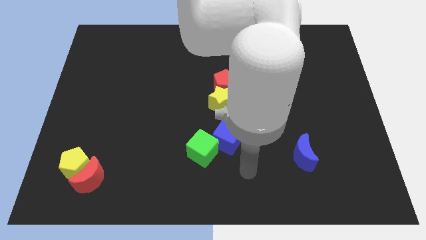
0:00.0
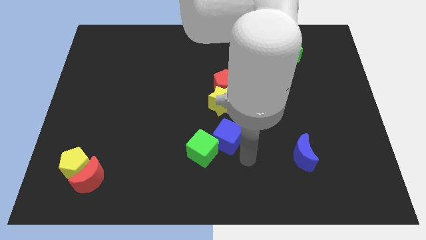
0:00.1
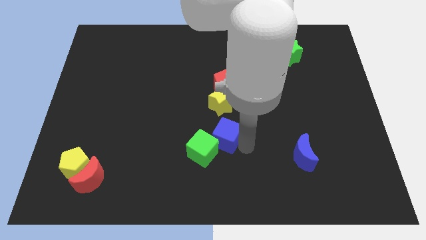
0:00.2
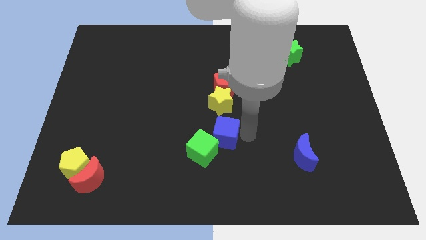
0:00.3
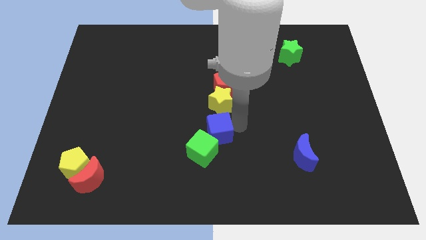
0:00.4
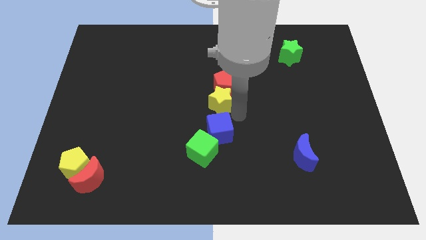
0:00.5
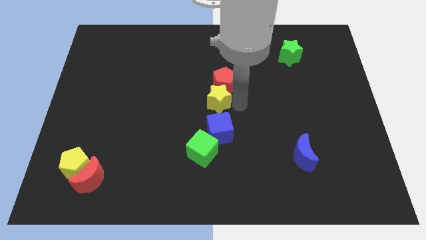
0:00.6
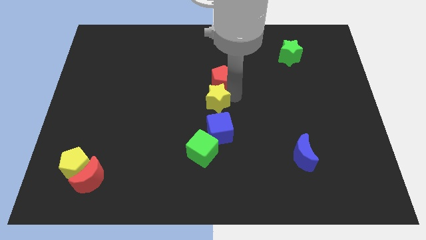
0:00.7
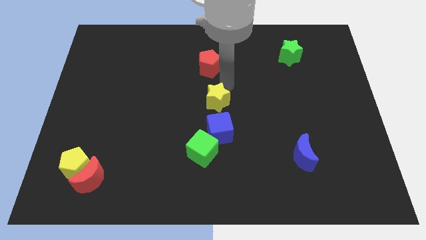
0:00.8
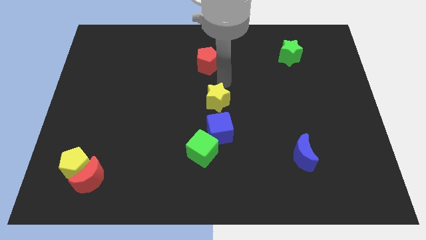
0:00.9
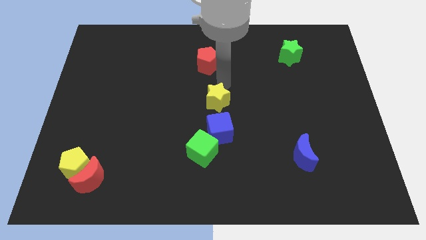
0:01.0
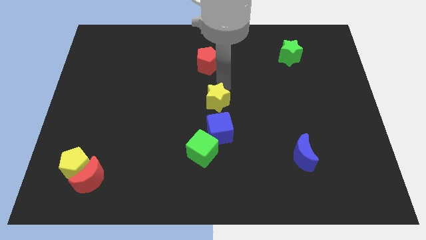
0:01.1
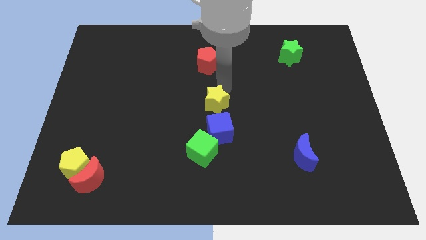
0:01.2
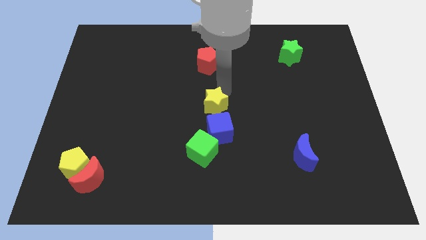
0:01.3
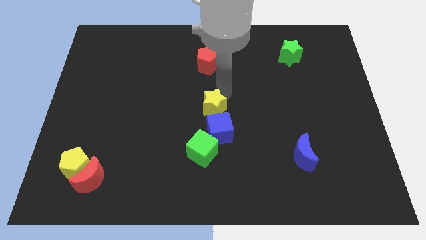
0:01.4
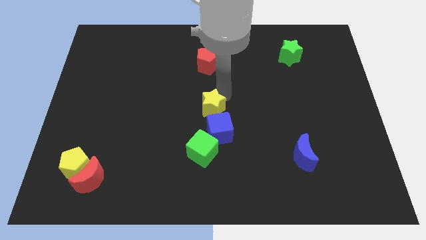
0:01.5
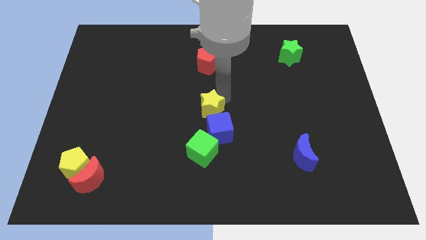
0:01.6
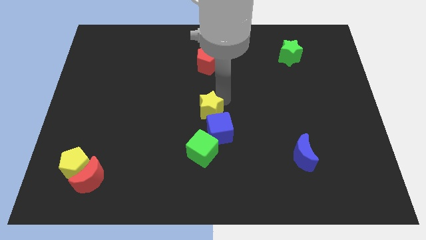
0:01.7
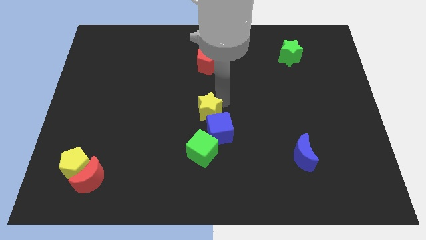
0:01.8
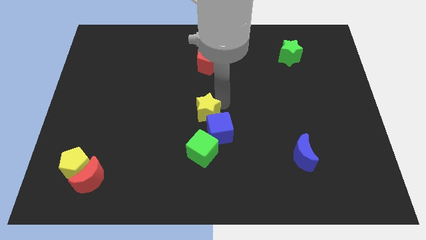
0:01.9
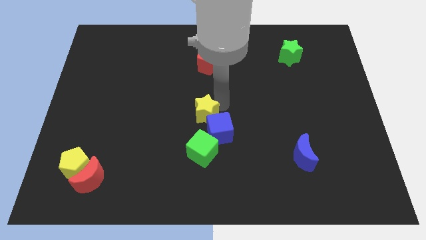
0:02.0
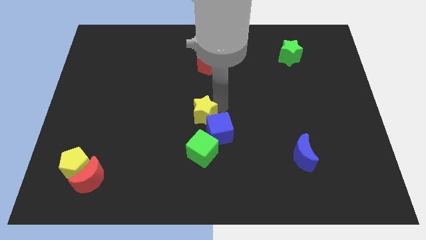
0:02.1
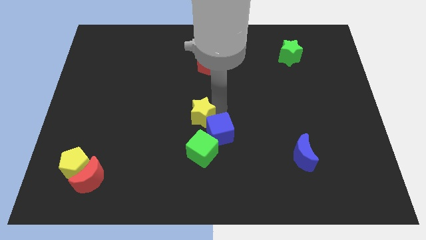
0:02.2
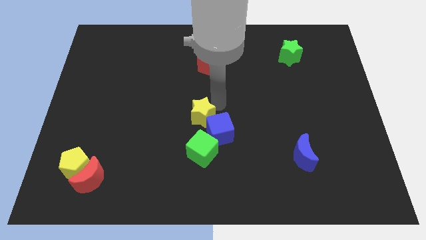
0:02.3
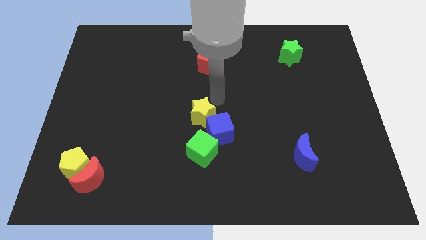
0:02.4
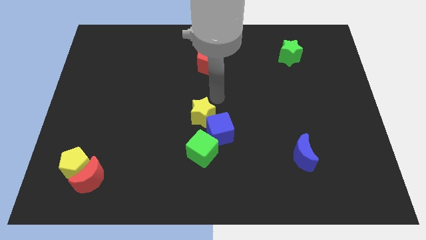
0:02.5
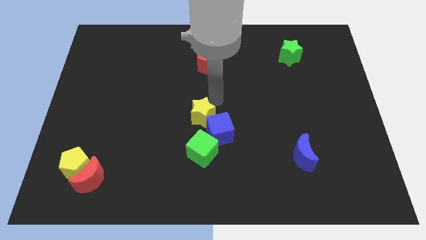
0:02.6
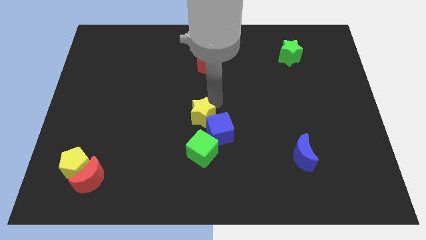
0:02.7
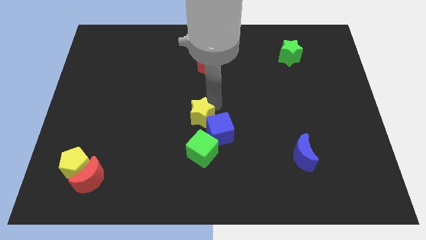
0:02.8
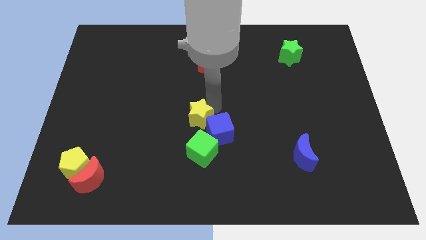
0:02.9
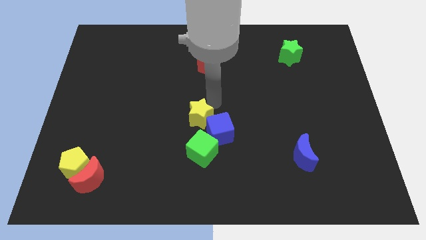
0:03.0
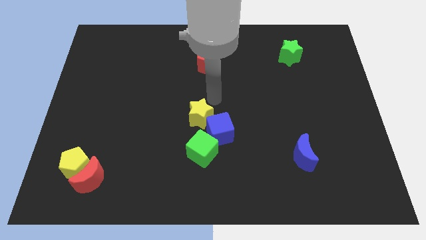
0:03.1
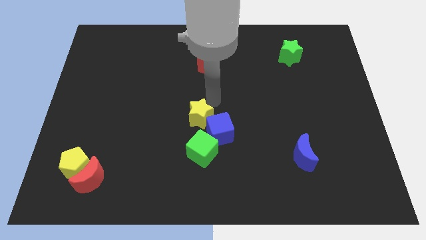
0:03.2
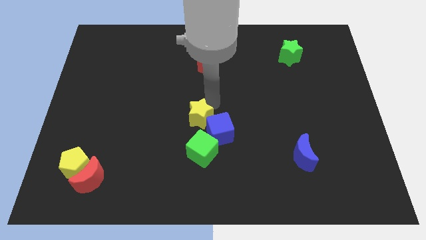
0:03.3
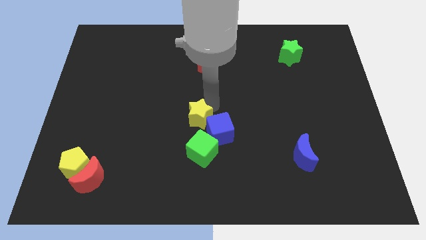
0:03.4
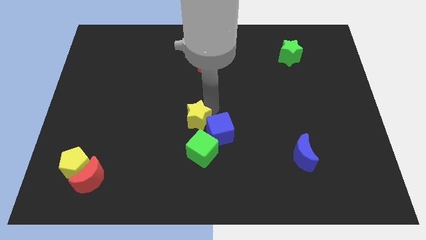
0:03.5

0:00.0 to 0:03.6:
move the yellow star downwards and left a bit

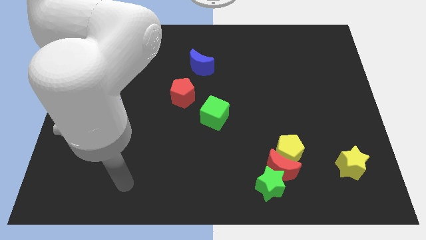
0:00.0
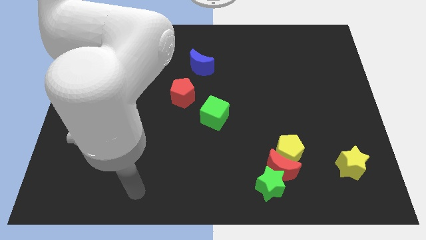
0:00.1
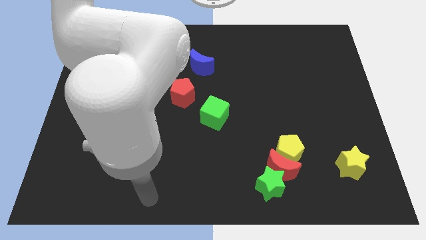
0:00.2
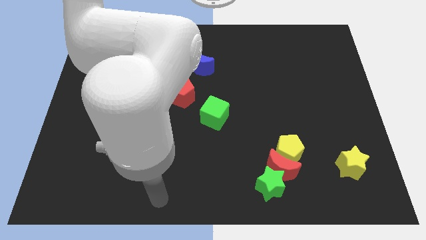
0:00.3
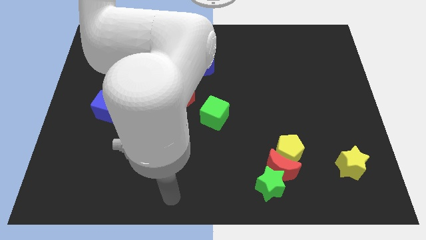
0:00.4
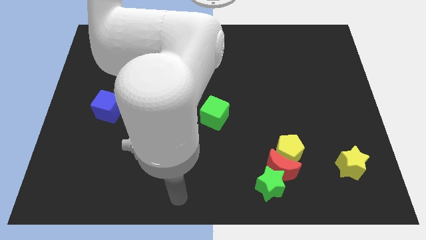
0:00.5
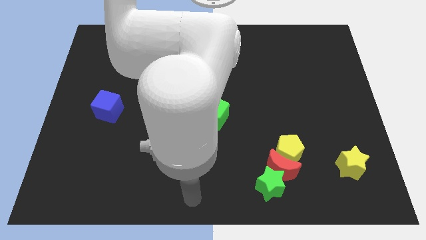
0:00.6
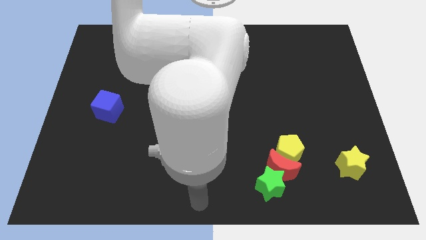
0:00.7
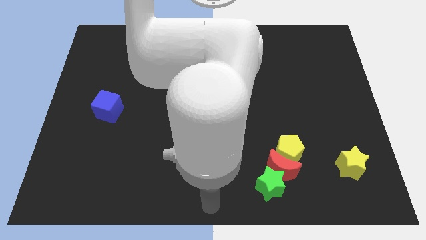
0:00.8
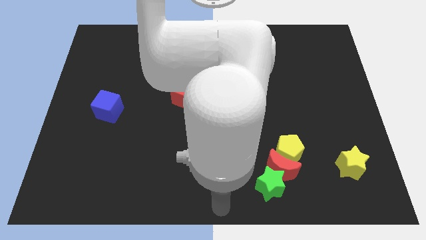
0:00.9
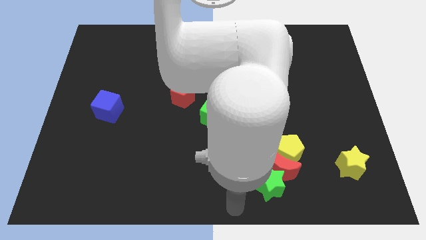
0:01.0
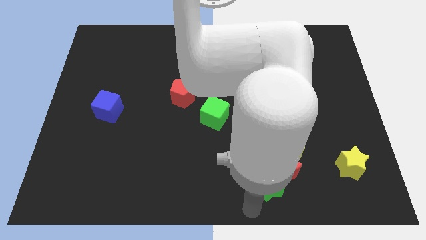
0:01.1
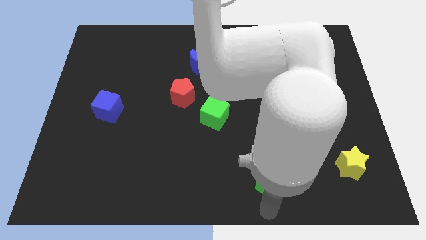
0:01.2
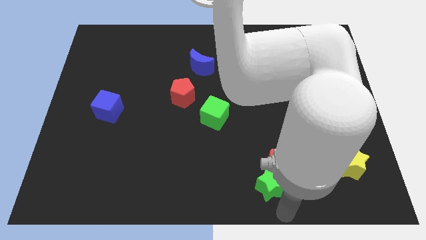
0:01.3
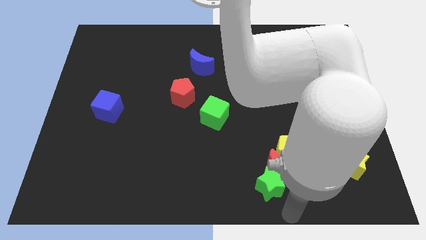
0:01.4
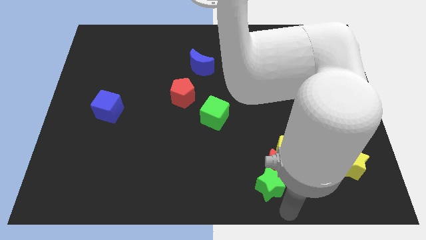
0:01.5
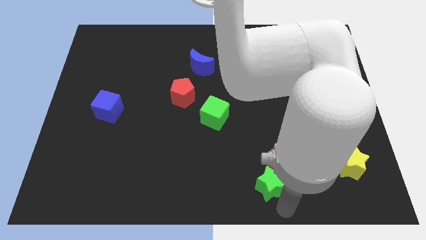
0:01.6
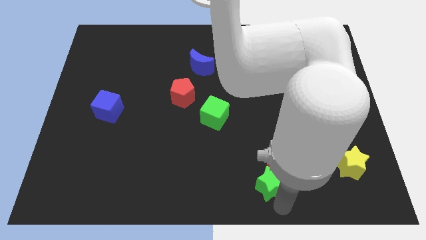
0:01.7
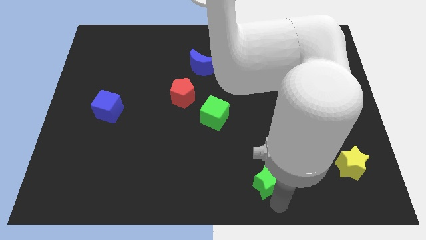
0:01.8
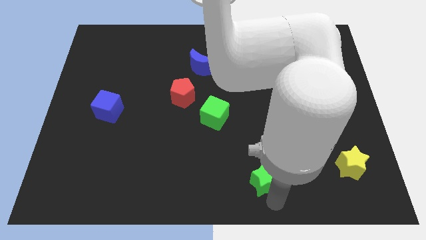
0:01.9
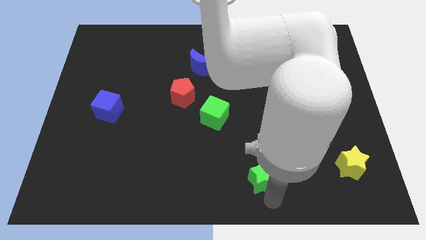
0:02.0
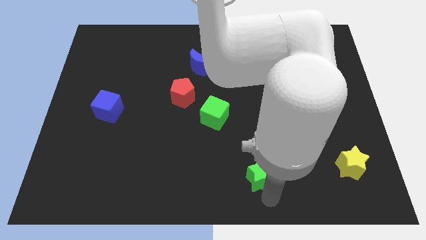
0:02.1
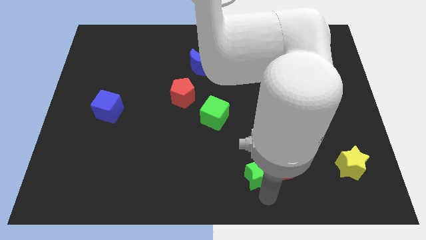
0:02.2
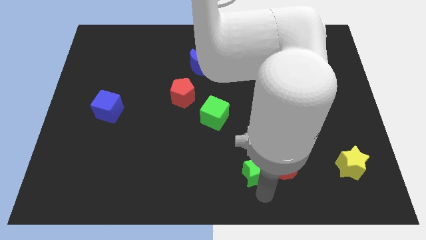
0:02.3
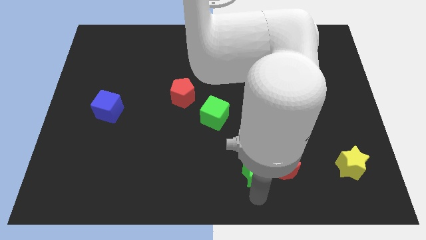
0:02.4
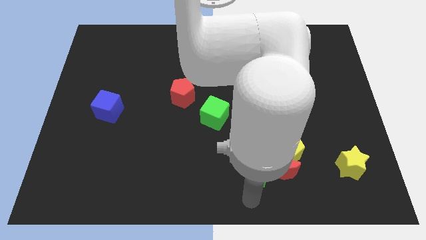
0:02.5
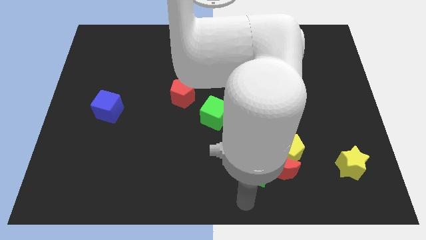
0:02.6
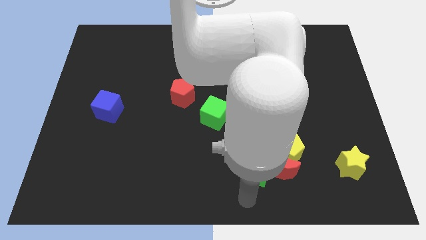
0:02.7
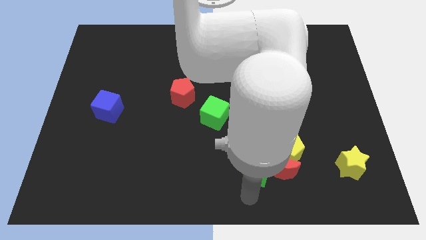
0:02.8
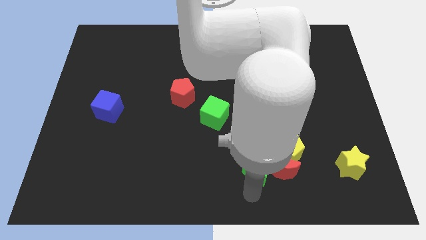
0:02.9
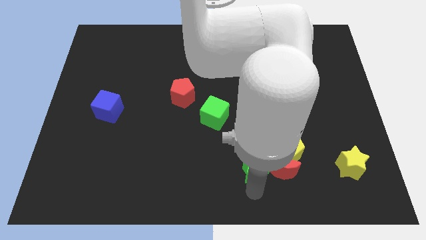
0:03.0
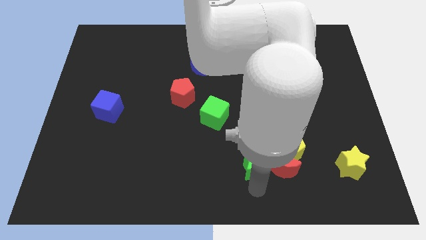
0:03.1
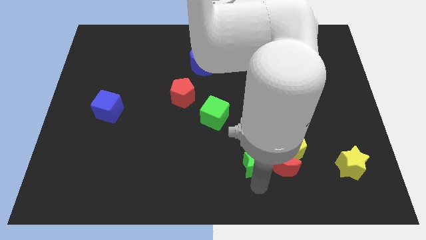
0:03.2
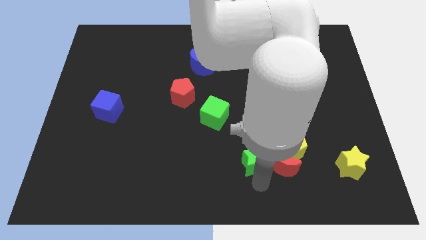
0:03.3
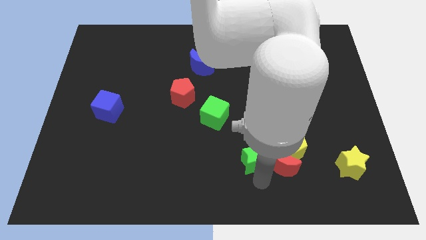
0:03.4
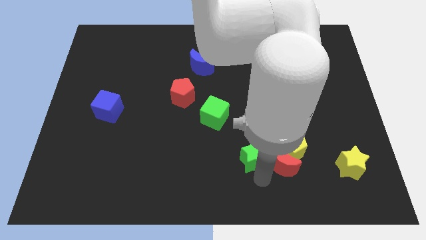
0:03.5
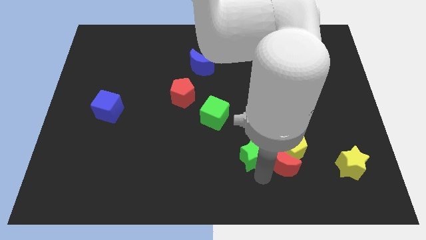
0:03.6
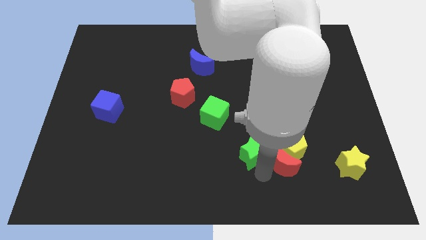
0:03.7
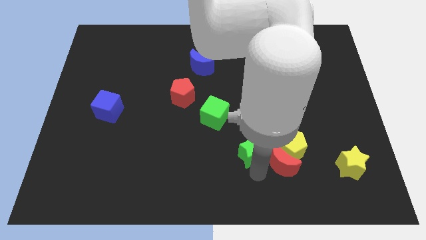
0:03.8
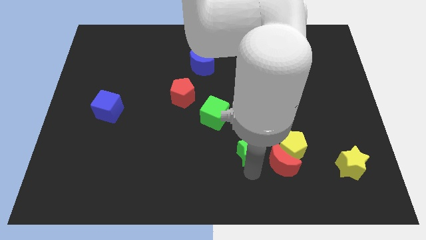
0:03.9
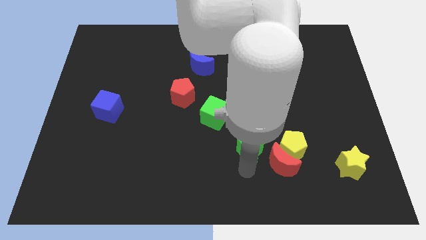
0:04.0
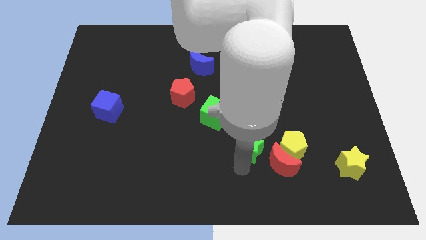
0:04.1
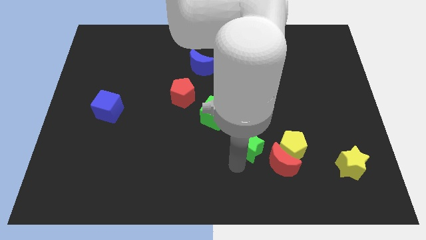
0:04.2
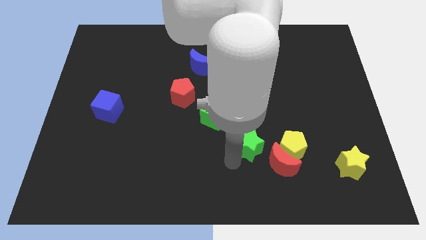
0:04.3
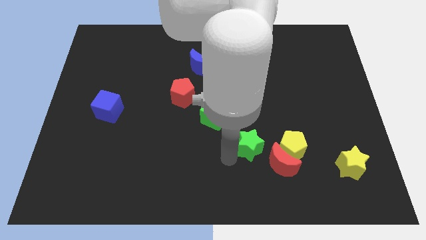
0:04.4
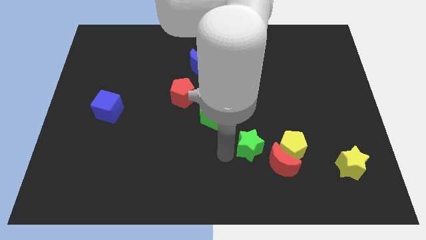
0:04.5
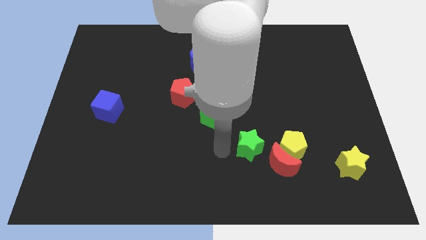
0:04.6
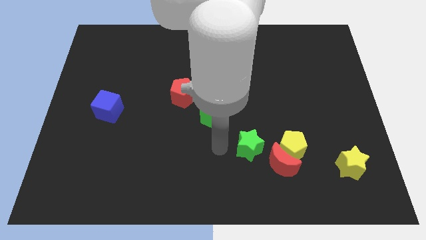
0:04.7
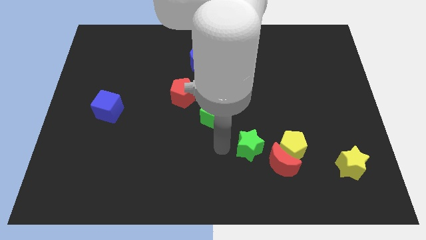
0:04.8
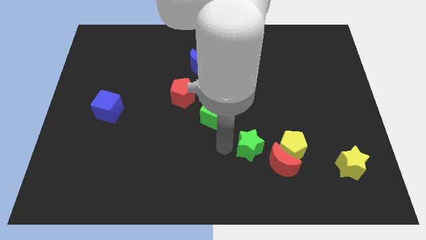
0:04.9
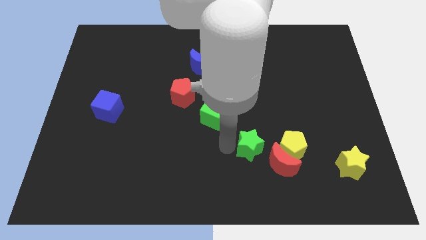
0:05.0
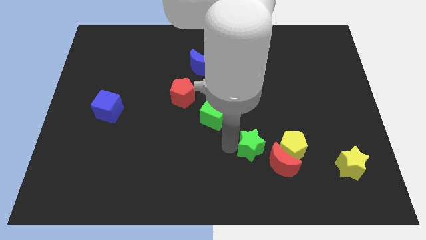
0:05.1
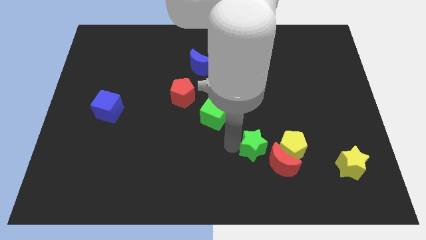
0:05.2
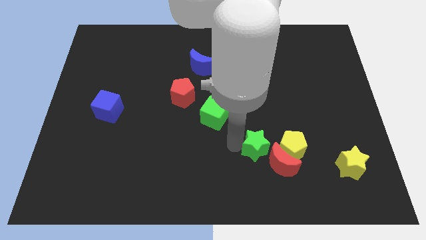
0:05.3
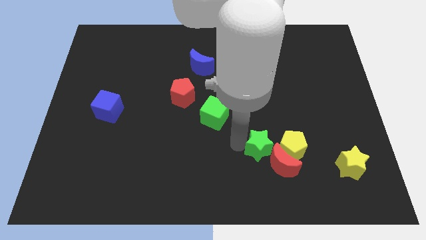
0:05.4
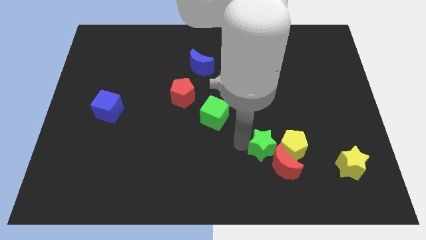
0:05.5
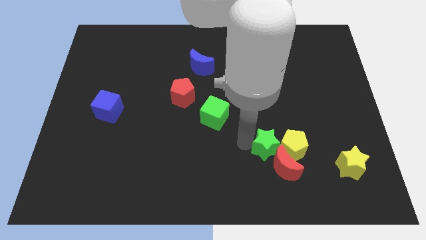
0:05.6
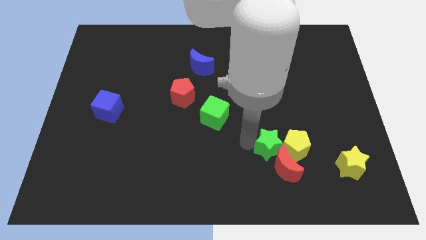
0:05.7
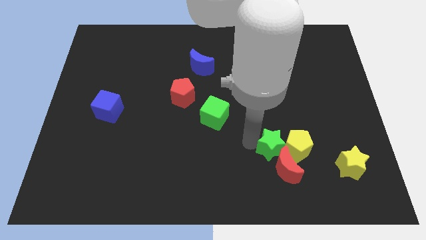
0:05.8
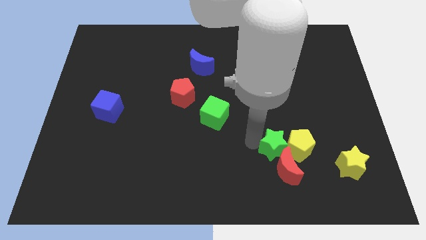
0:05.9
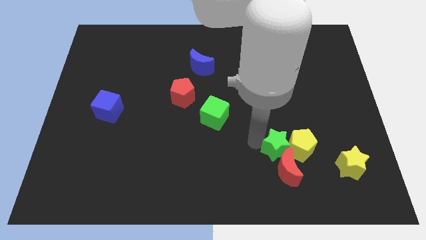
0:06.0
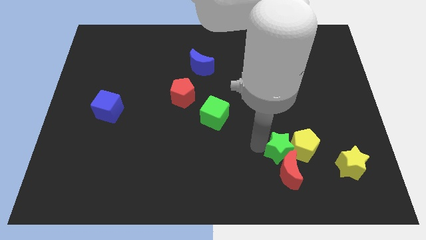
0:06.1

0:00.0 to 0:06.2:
move the green star a little up and to the right diagonally
